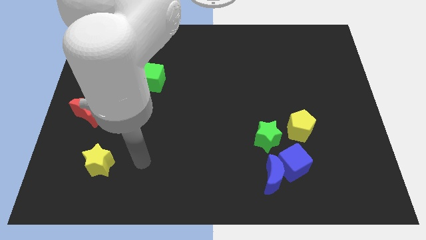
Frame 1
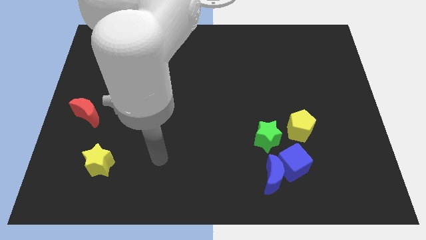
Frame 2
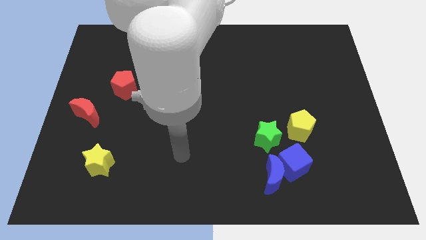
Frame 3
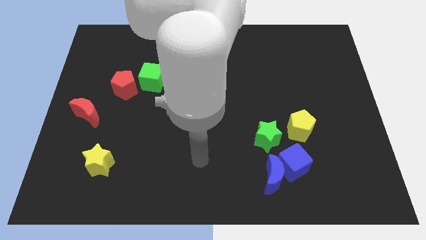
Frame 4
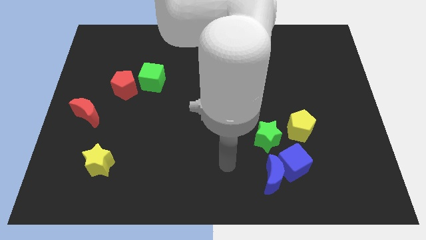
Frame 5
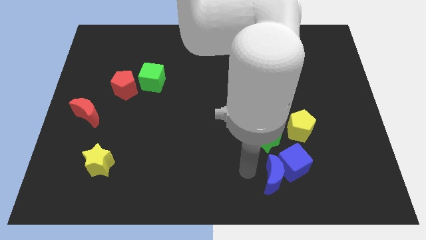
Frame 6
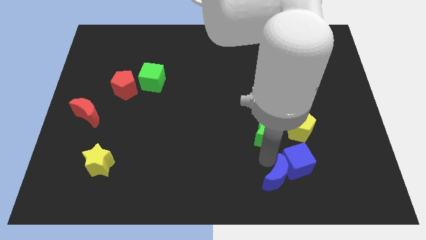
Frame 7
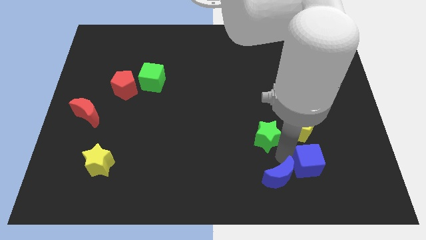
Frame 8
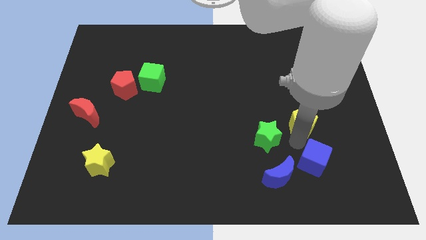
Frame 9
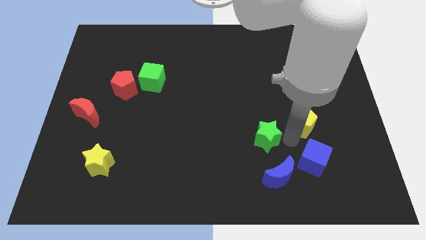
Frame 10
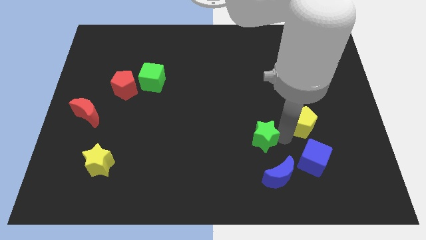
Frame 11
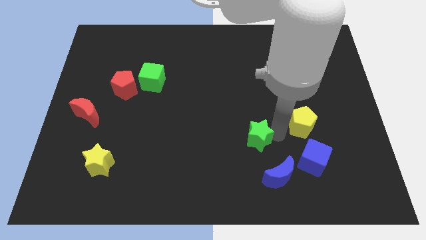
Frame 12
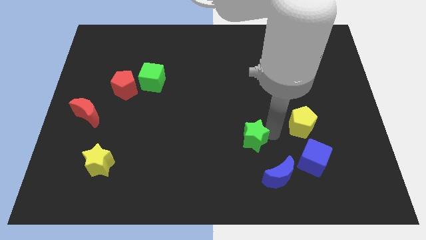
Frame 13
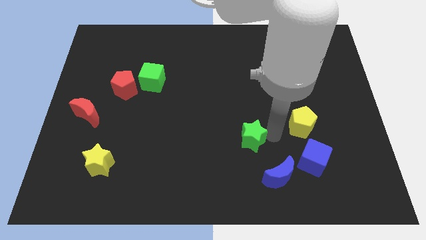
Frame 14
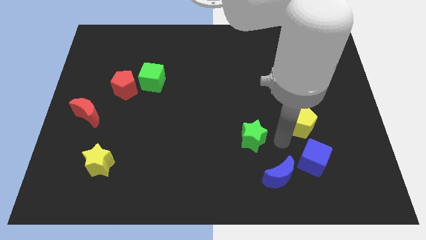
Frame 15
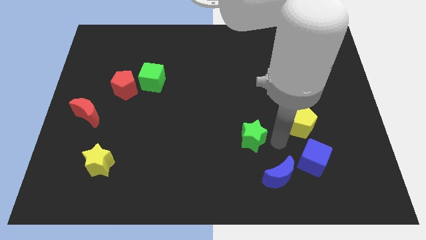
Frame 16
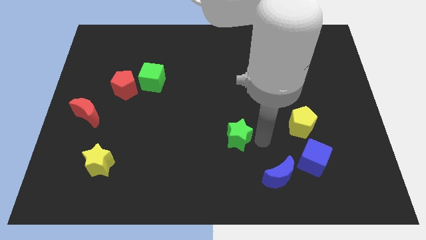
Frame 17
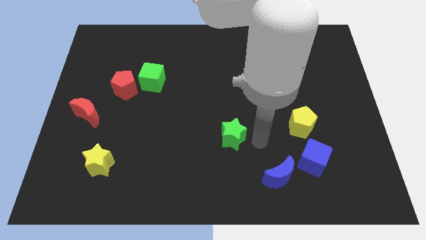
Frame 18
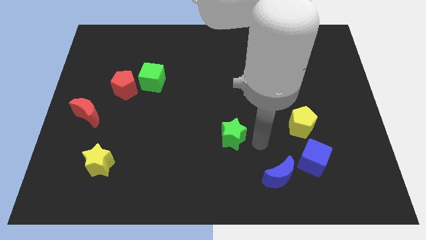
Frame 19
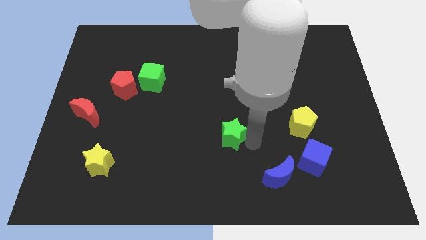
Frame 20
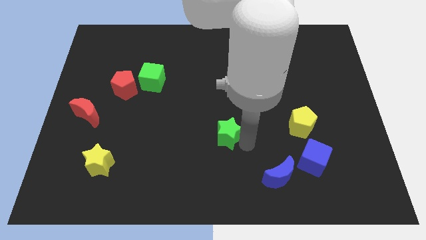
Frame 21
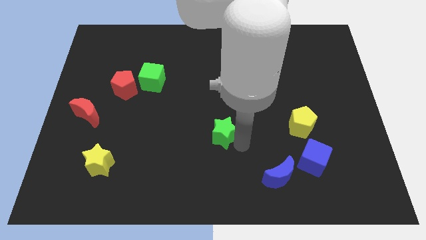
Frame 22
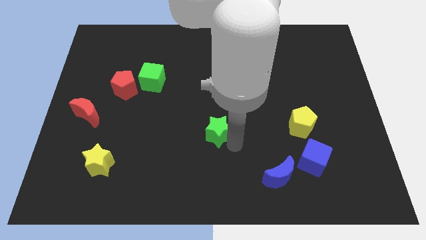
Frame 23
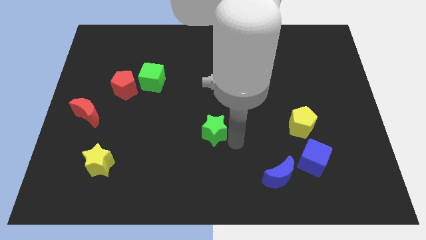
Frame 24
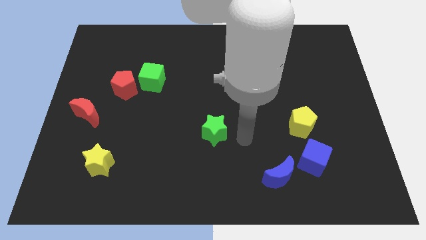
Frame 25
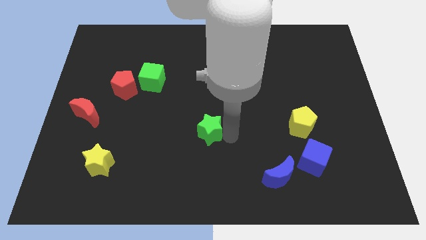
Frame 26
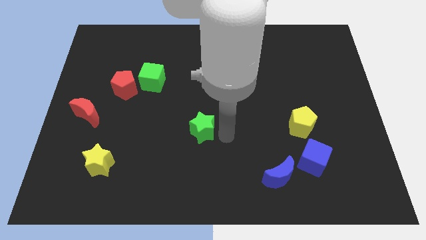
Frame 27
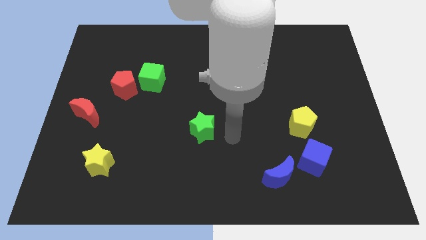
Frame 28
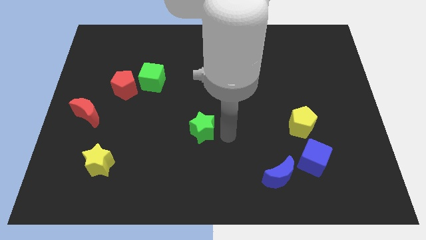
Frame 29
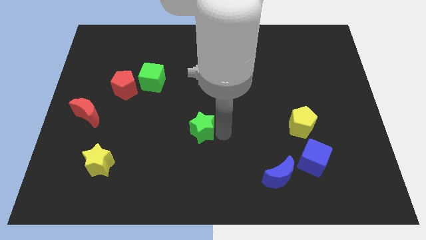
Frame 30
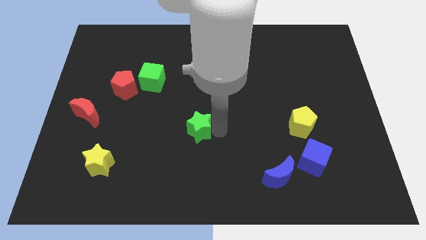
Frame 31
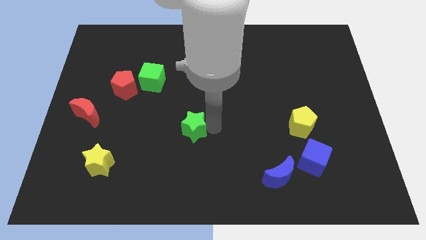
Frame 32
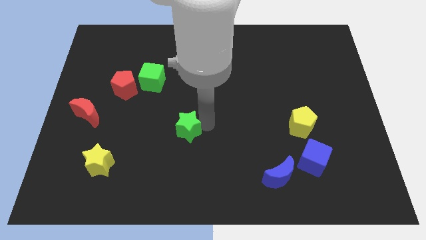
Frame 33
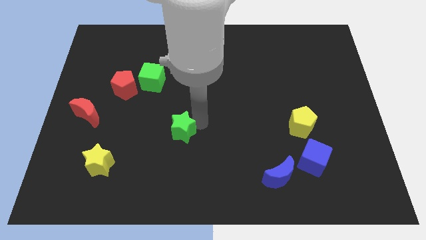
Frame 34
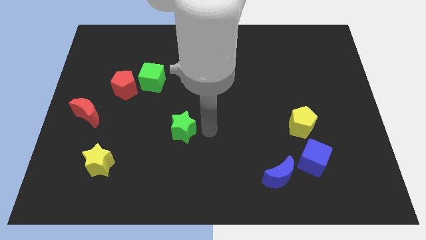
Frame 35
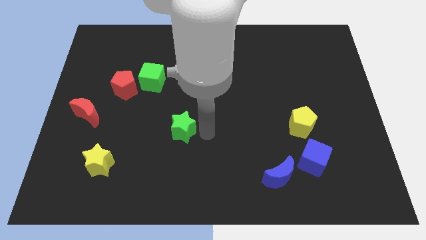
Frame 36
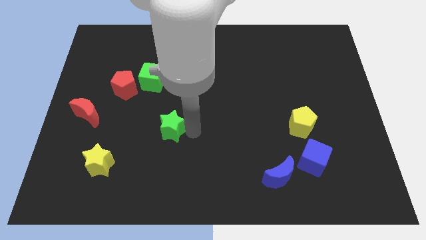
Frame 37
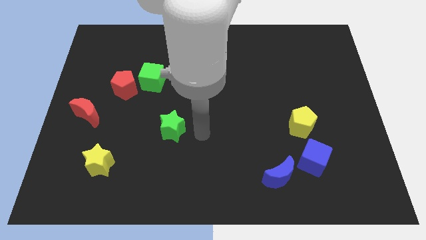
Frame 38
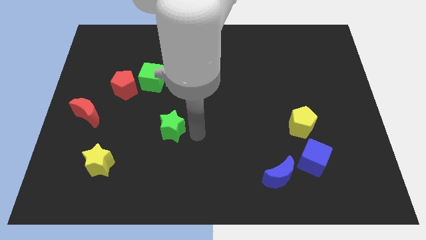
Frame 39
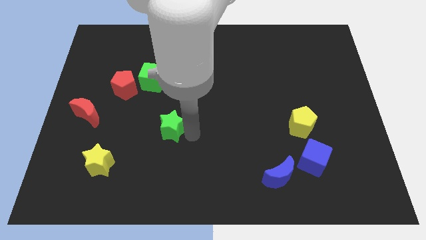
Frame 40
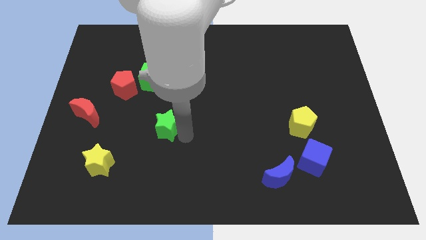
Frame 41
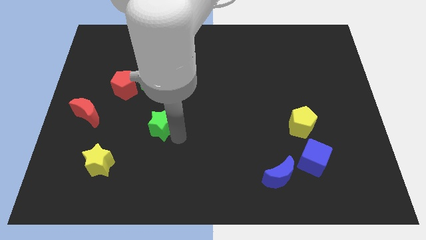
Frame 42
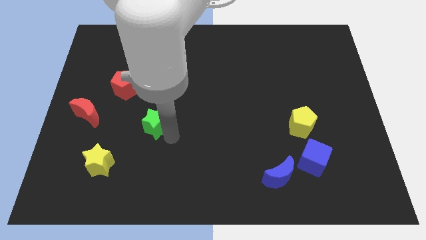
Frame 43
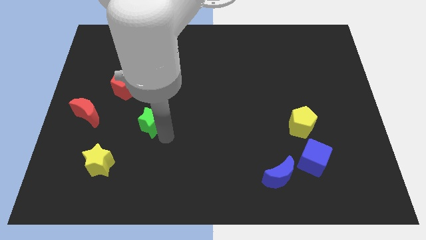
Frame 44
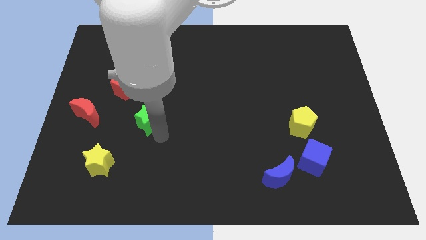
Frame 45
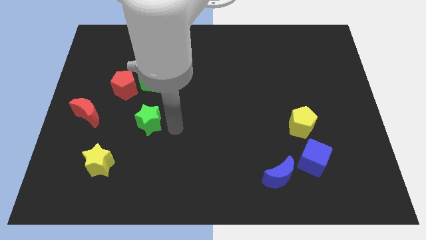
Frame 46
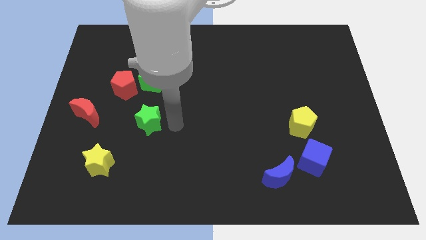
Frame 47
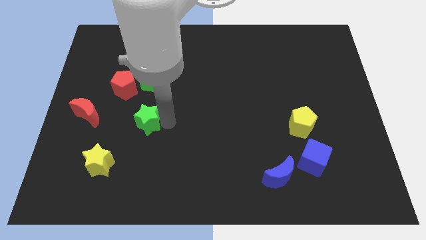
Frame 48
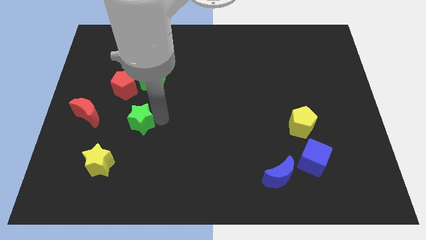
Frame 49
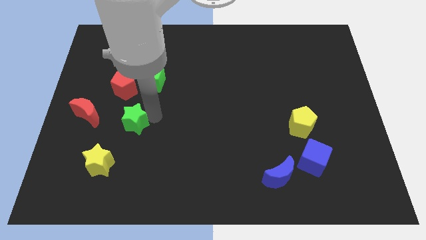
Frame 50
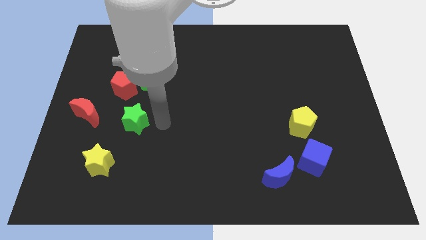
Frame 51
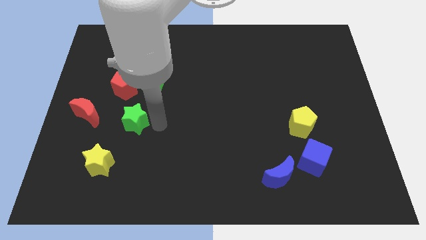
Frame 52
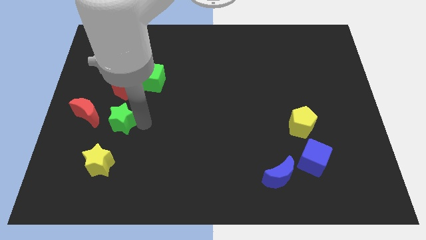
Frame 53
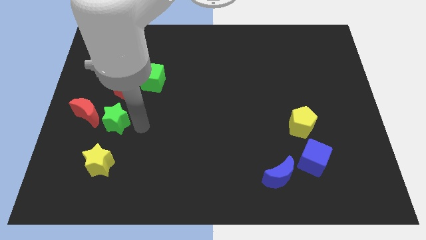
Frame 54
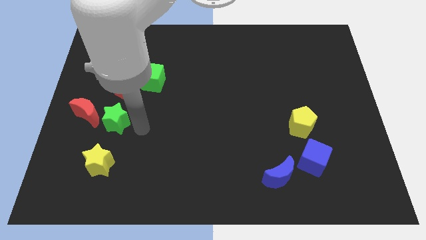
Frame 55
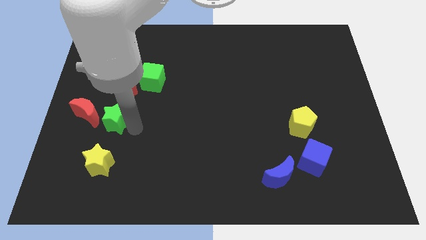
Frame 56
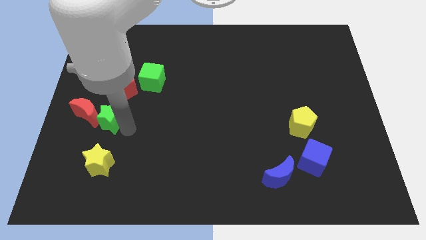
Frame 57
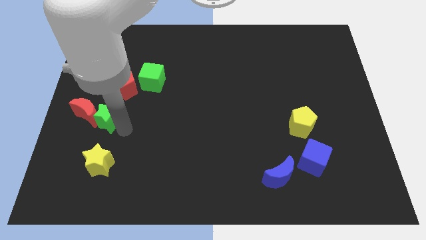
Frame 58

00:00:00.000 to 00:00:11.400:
move the green star to the red moon

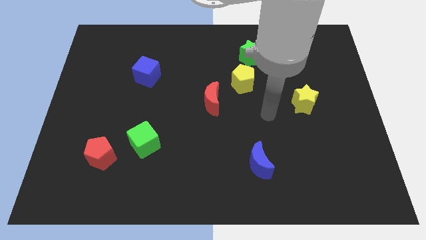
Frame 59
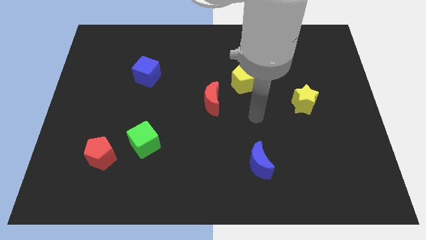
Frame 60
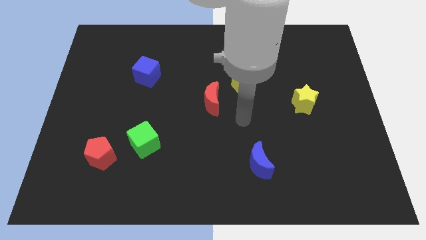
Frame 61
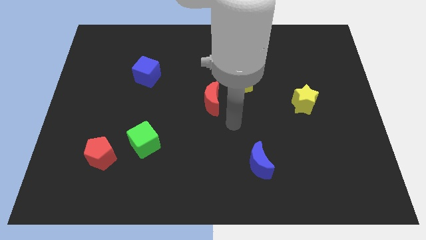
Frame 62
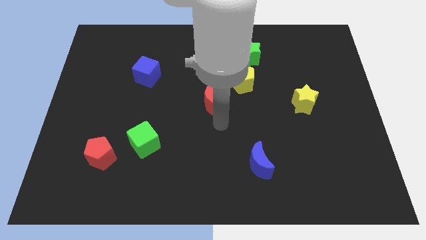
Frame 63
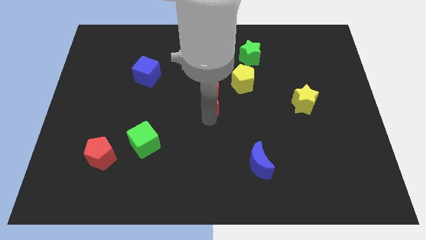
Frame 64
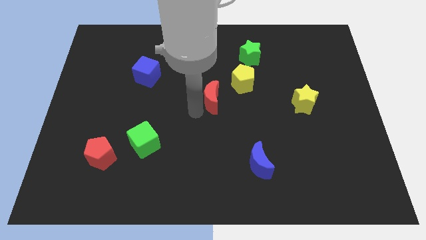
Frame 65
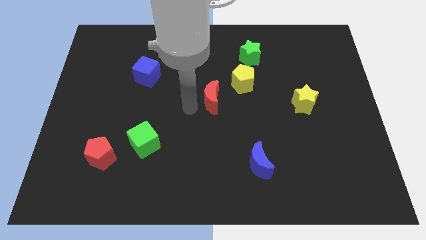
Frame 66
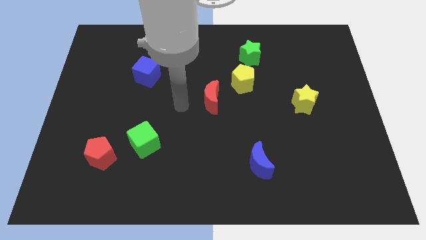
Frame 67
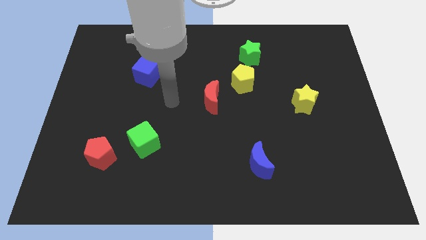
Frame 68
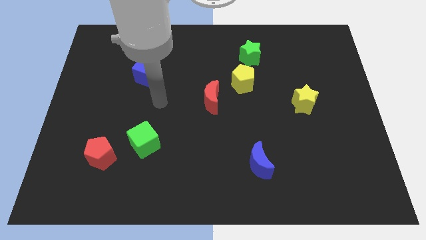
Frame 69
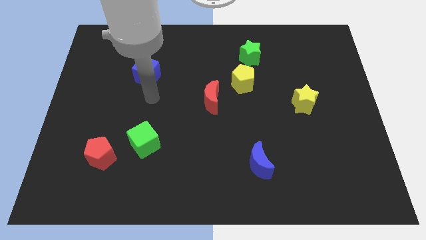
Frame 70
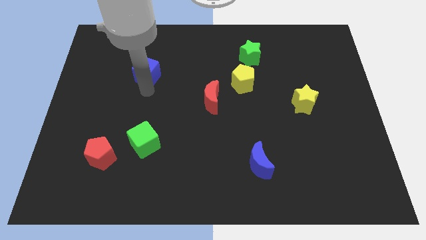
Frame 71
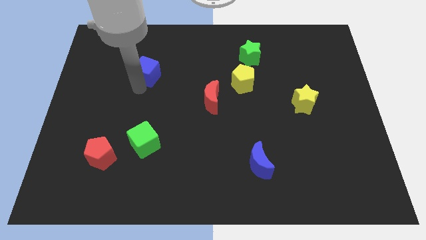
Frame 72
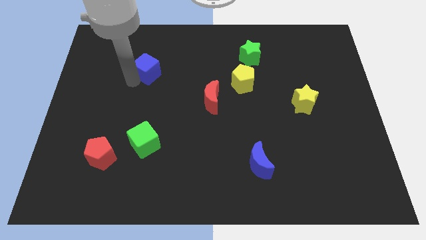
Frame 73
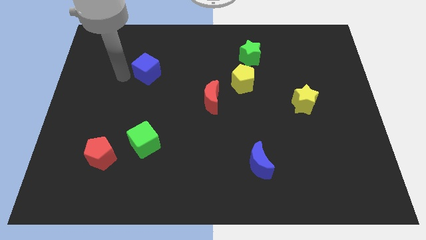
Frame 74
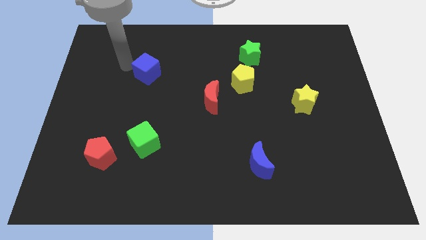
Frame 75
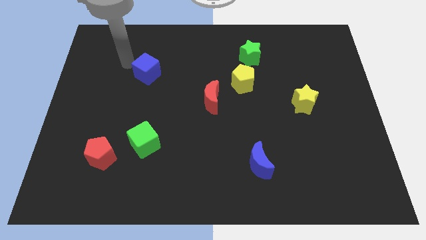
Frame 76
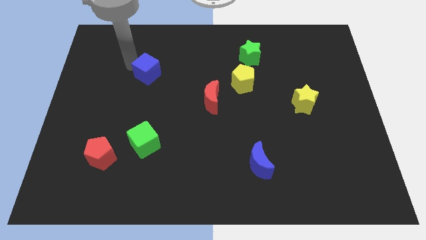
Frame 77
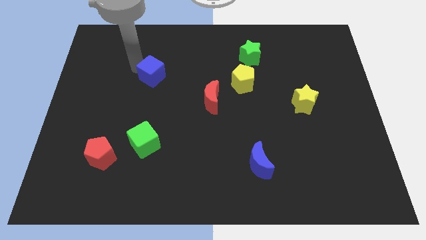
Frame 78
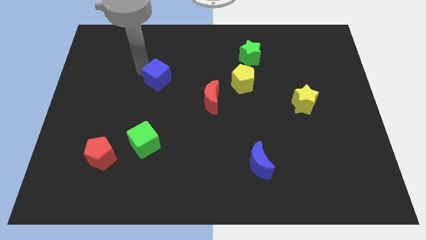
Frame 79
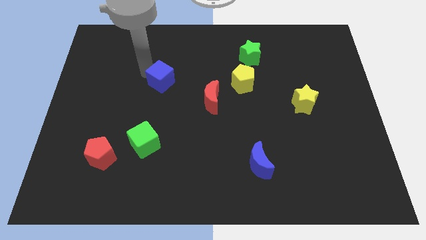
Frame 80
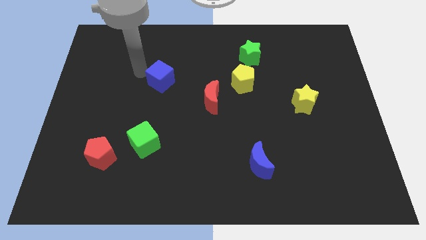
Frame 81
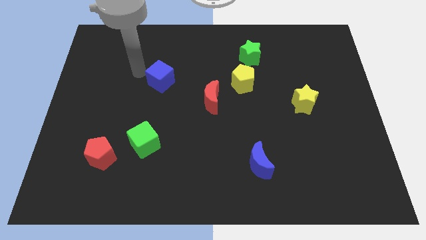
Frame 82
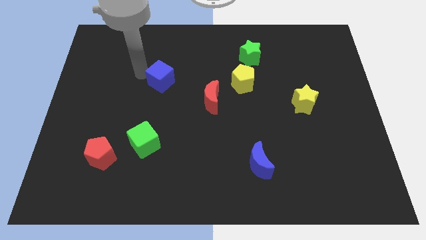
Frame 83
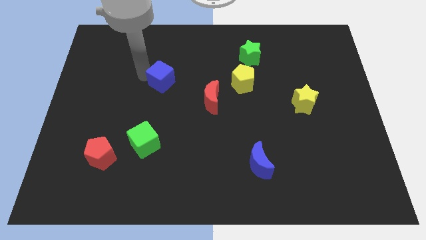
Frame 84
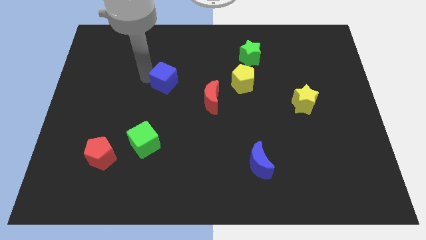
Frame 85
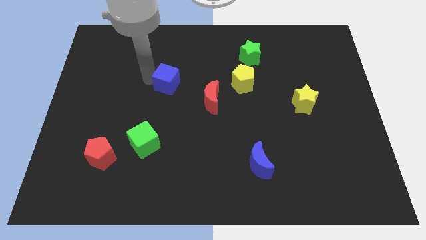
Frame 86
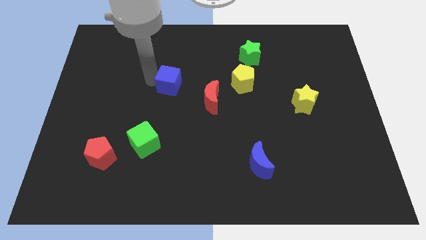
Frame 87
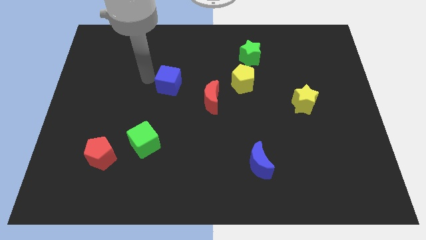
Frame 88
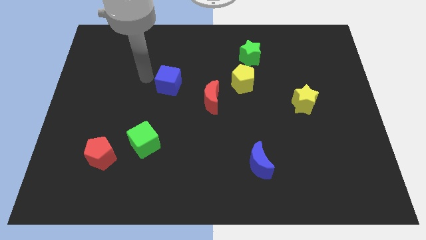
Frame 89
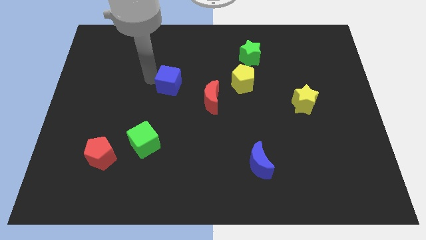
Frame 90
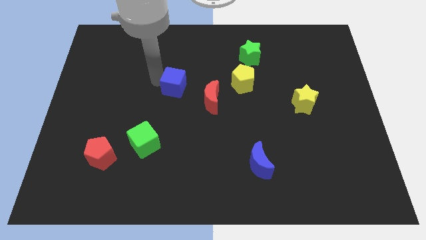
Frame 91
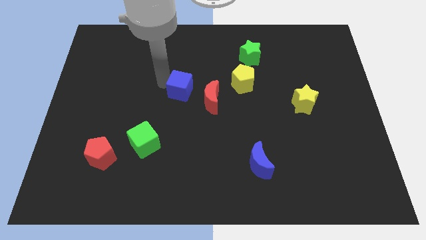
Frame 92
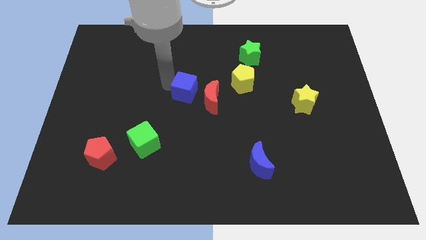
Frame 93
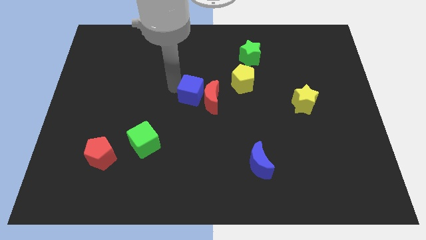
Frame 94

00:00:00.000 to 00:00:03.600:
put the blue cube close to the red moon
